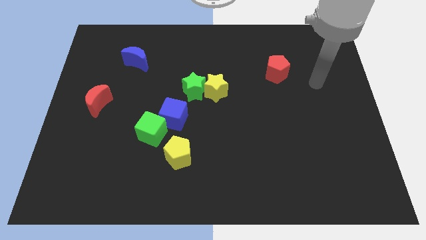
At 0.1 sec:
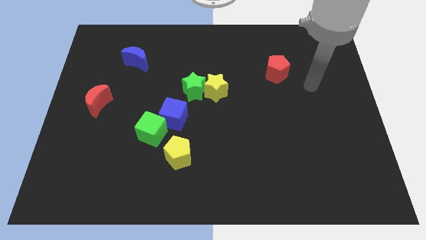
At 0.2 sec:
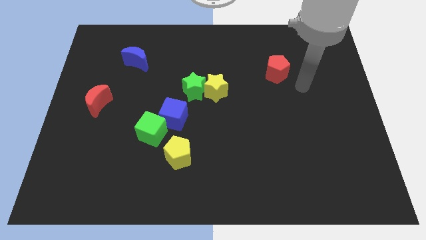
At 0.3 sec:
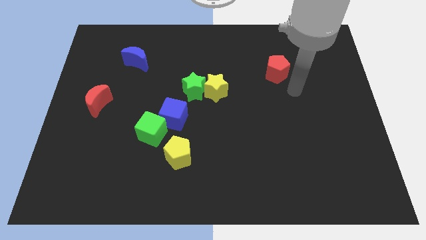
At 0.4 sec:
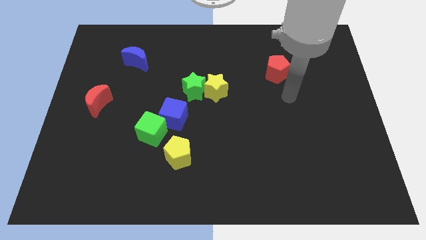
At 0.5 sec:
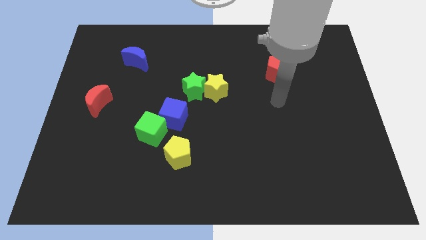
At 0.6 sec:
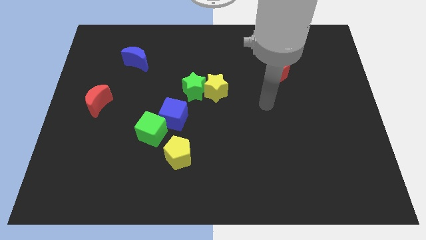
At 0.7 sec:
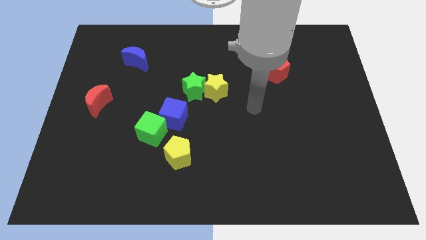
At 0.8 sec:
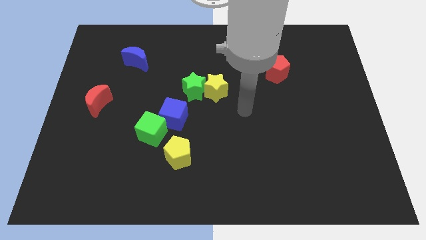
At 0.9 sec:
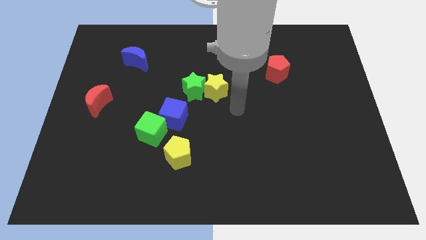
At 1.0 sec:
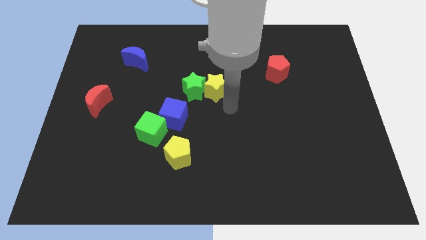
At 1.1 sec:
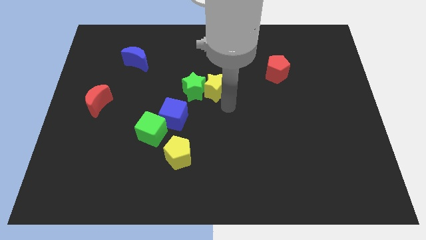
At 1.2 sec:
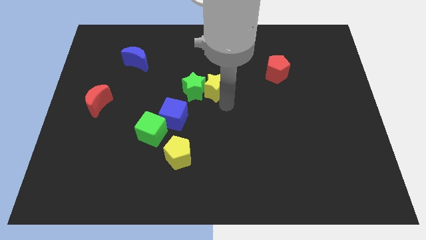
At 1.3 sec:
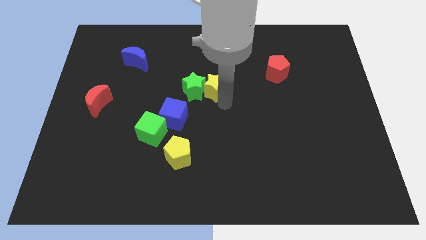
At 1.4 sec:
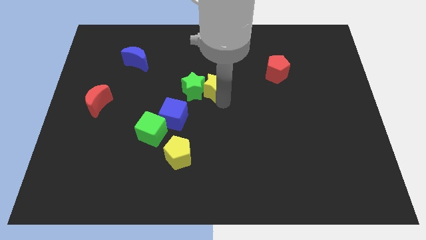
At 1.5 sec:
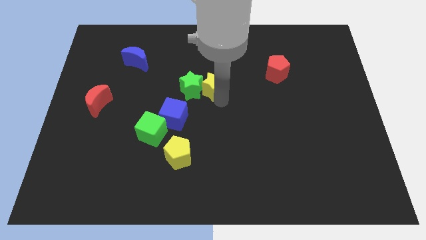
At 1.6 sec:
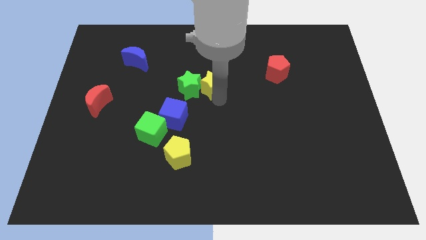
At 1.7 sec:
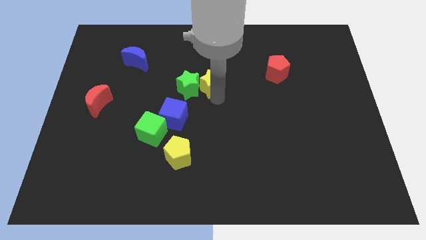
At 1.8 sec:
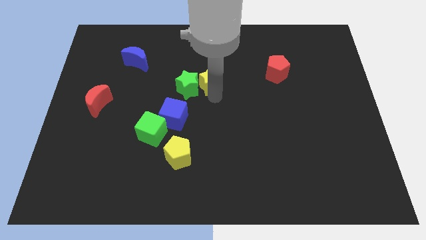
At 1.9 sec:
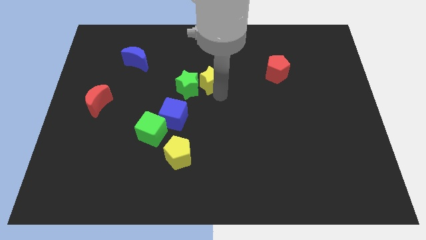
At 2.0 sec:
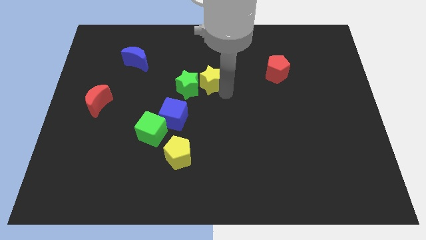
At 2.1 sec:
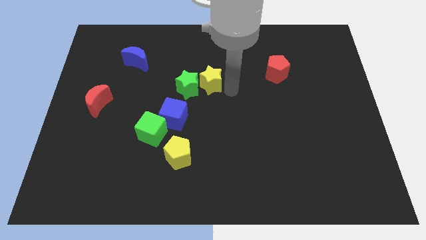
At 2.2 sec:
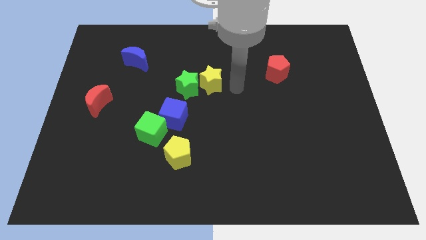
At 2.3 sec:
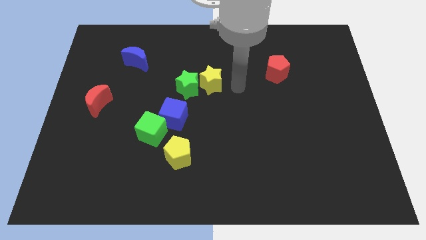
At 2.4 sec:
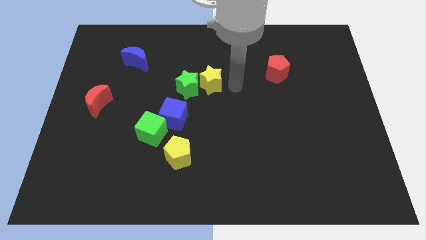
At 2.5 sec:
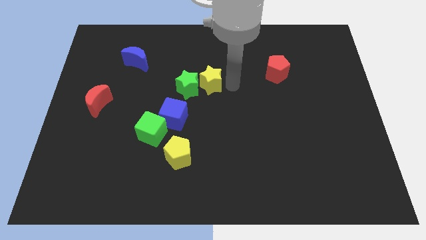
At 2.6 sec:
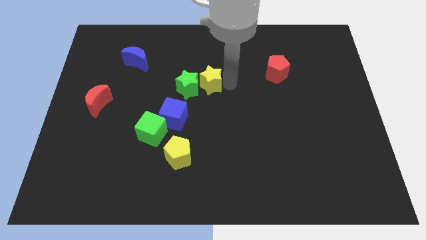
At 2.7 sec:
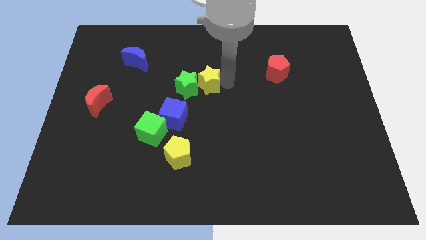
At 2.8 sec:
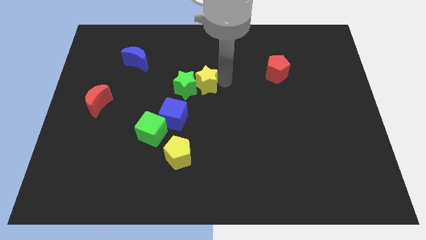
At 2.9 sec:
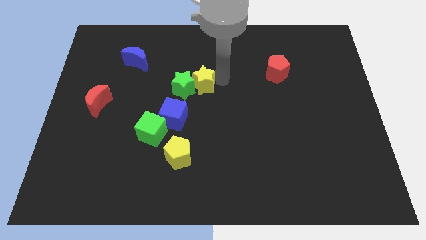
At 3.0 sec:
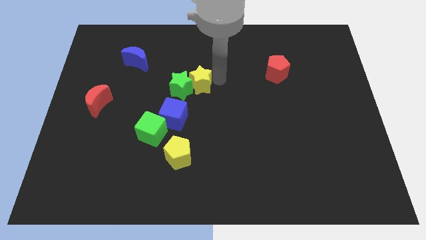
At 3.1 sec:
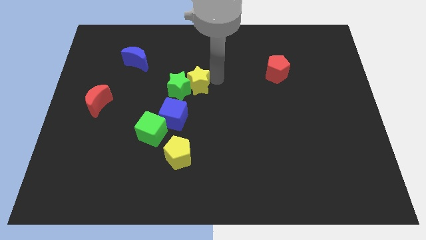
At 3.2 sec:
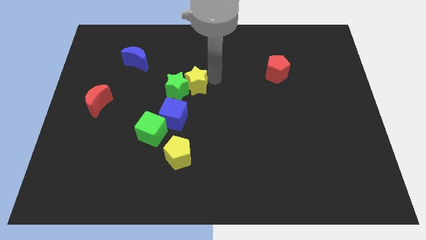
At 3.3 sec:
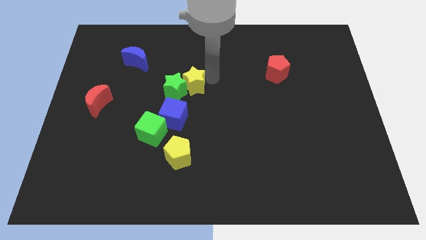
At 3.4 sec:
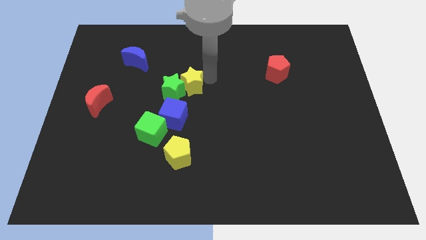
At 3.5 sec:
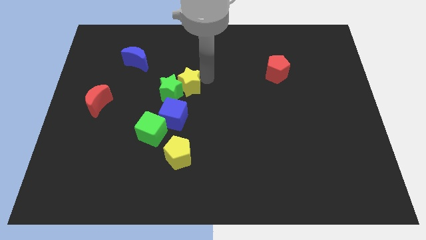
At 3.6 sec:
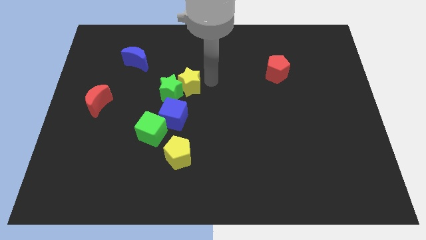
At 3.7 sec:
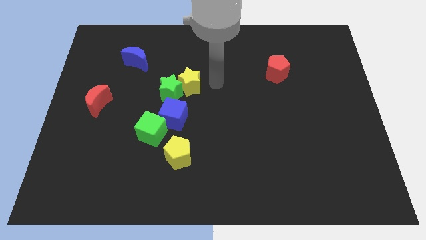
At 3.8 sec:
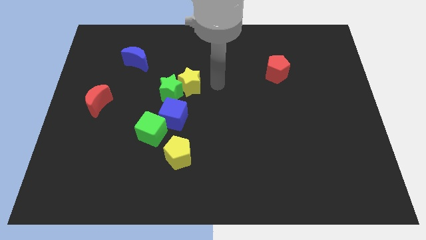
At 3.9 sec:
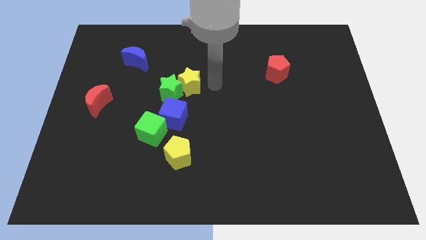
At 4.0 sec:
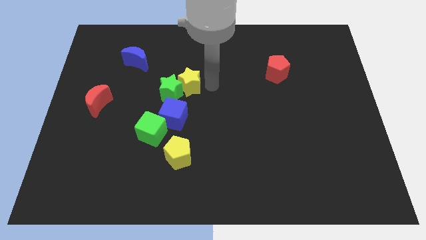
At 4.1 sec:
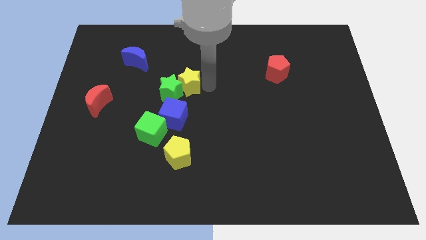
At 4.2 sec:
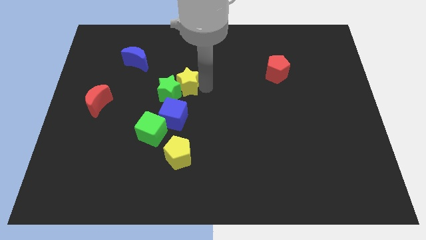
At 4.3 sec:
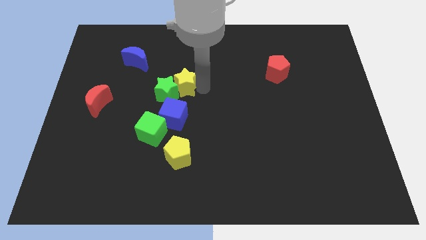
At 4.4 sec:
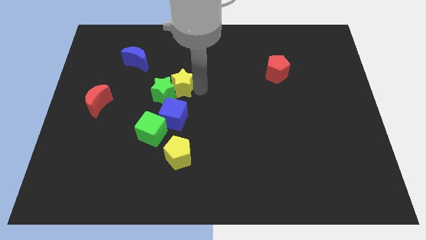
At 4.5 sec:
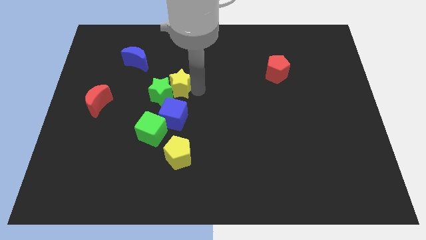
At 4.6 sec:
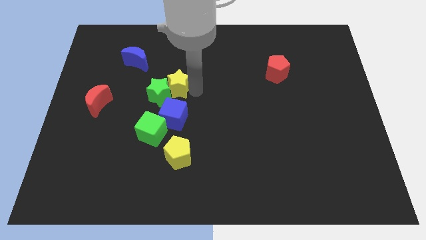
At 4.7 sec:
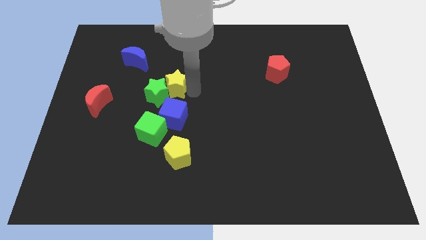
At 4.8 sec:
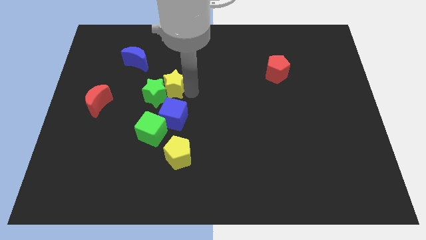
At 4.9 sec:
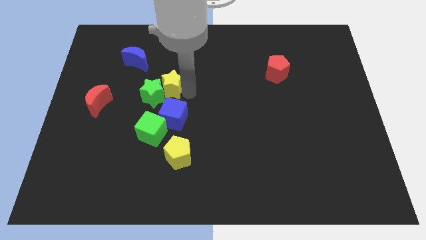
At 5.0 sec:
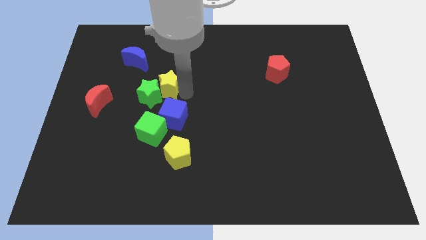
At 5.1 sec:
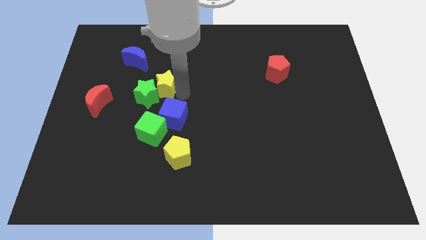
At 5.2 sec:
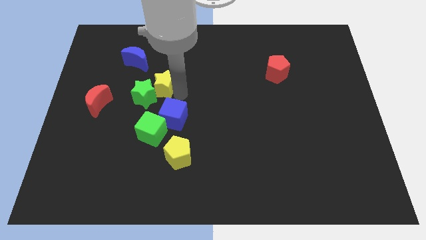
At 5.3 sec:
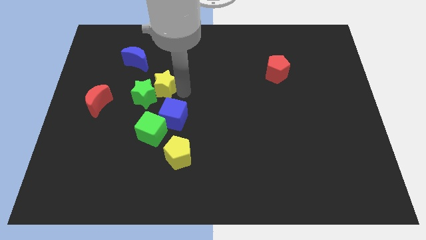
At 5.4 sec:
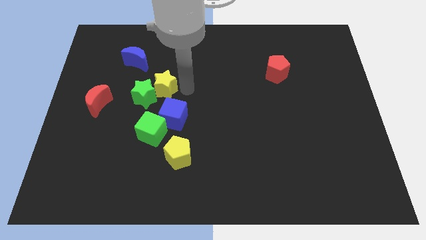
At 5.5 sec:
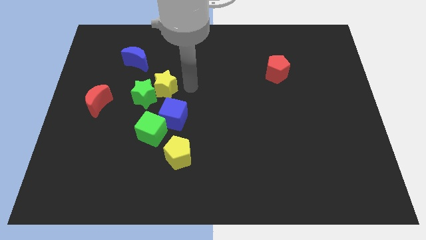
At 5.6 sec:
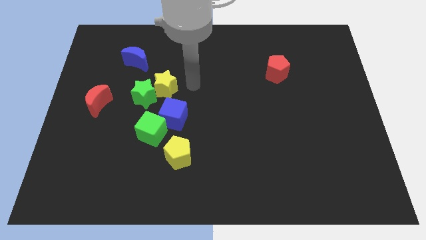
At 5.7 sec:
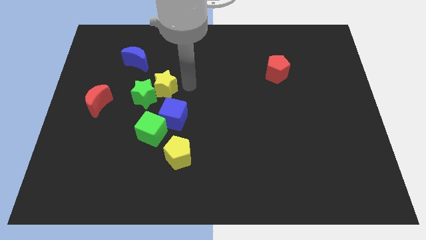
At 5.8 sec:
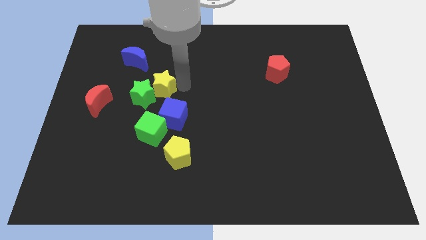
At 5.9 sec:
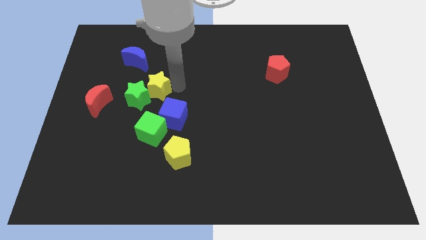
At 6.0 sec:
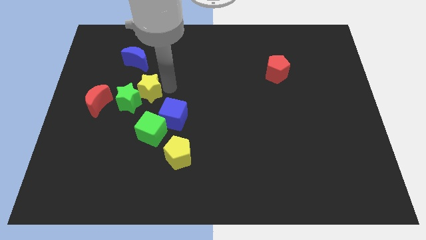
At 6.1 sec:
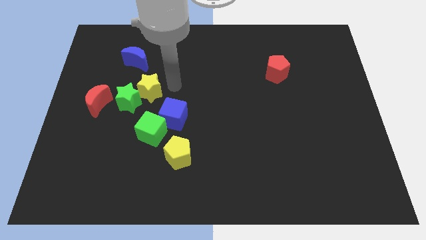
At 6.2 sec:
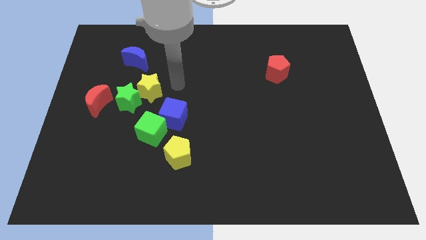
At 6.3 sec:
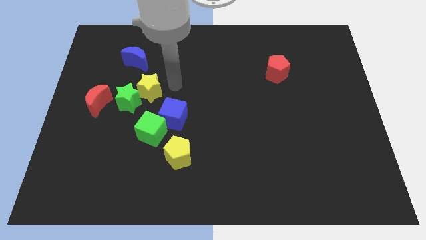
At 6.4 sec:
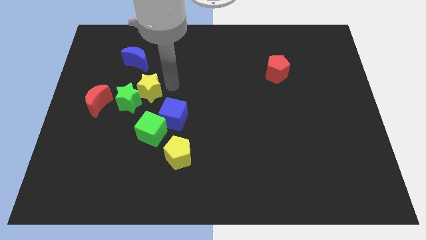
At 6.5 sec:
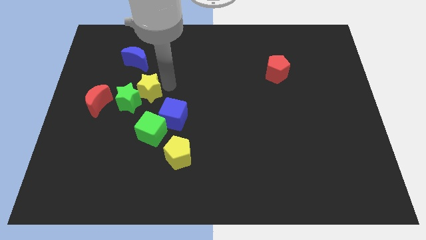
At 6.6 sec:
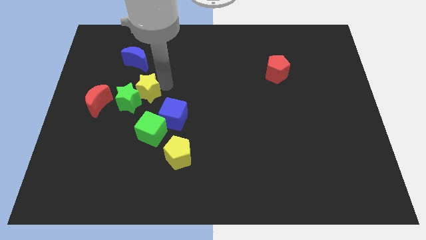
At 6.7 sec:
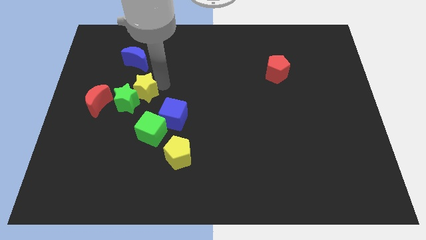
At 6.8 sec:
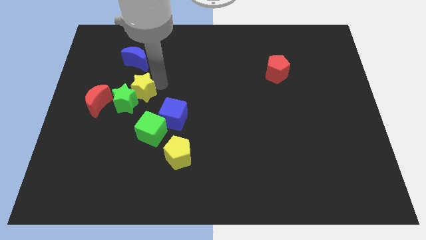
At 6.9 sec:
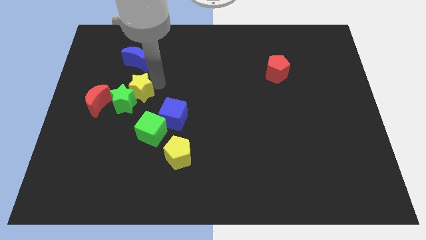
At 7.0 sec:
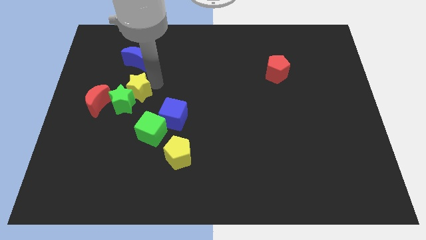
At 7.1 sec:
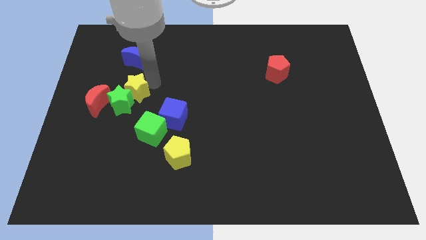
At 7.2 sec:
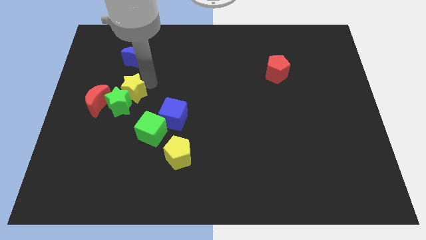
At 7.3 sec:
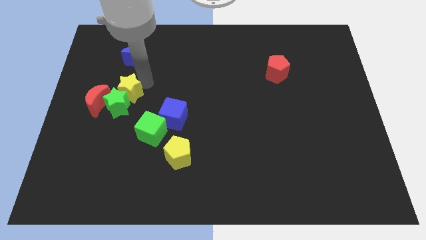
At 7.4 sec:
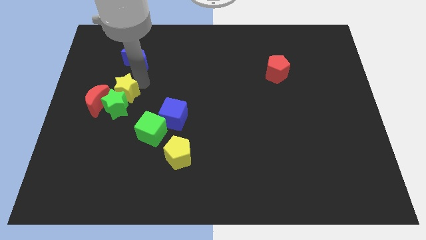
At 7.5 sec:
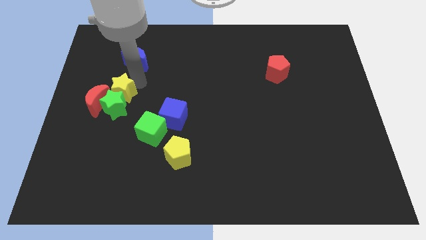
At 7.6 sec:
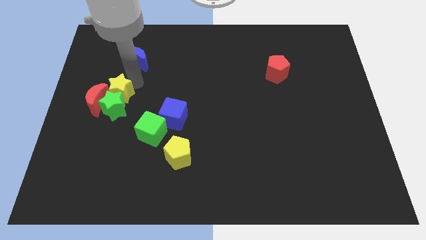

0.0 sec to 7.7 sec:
move the yellow star to the red moon
